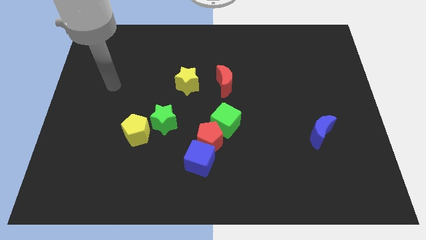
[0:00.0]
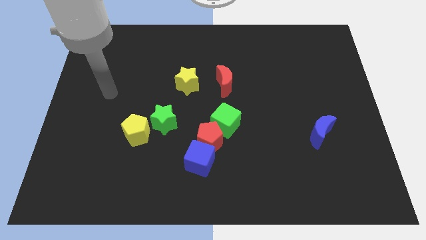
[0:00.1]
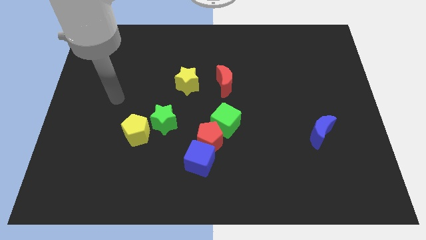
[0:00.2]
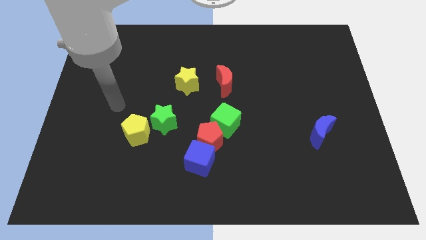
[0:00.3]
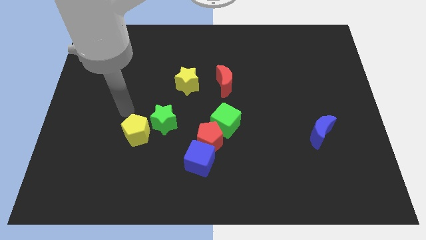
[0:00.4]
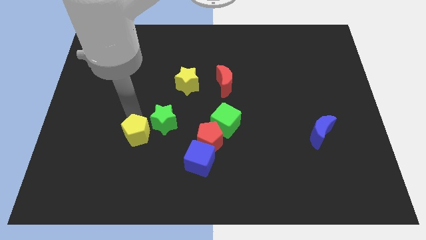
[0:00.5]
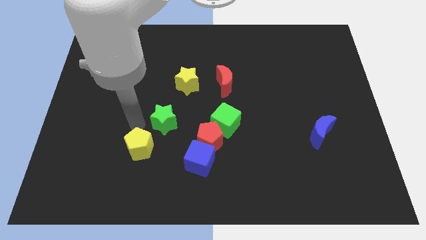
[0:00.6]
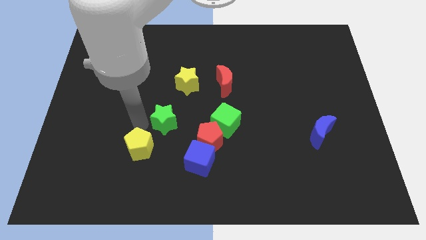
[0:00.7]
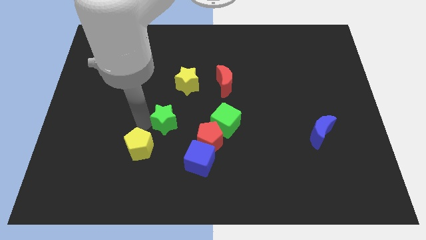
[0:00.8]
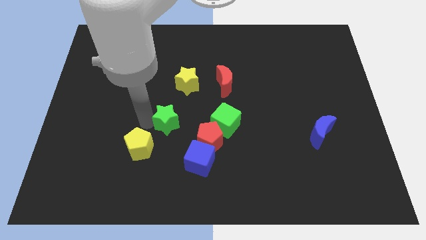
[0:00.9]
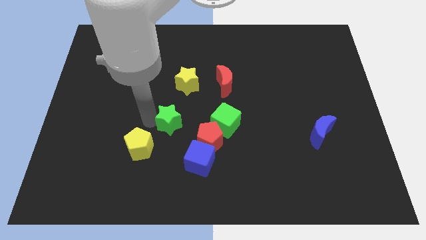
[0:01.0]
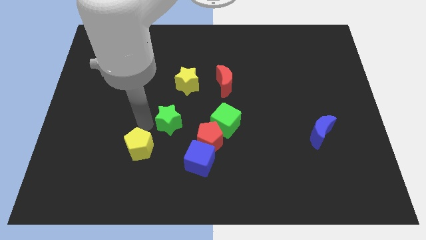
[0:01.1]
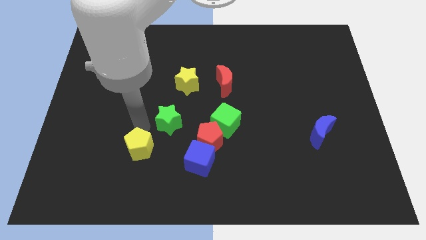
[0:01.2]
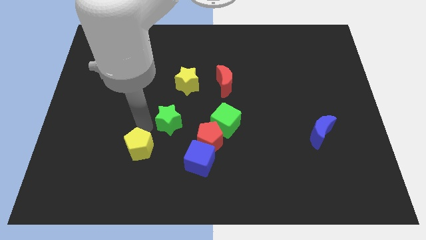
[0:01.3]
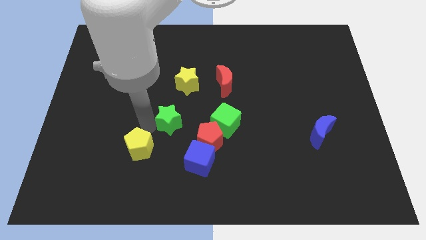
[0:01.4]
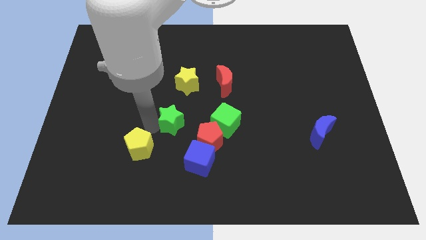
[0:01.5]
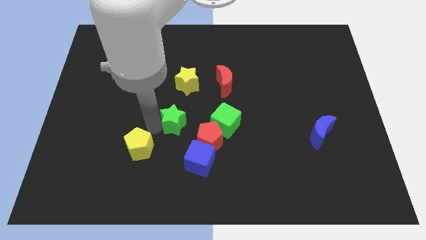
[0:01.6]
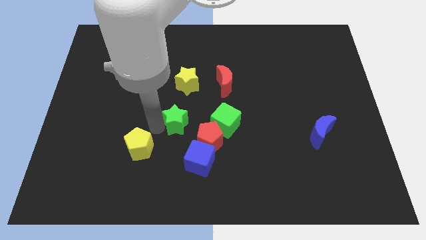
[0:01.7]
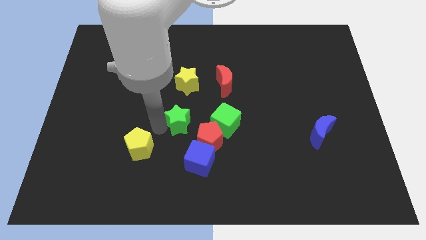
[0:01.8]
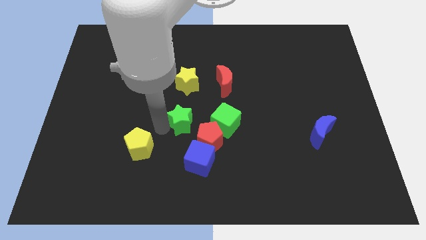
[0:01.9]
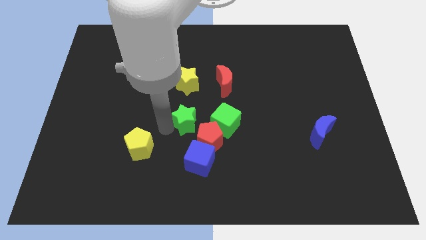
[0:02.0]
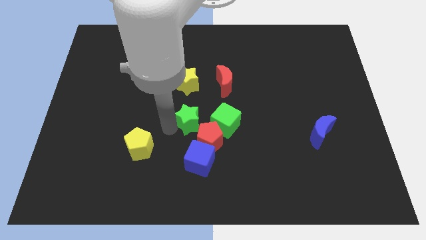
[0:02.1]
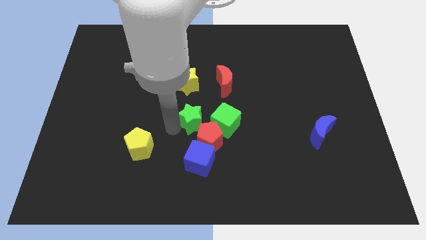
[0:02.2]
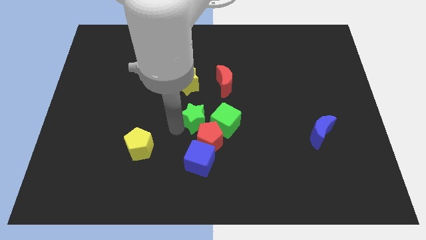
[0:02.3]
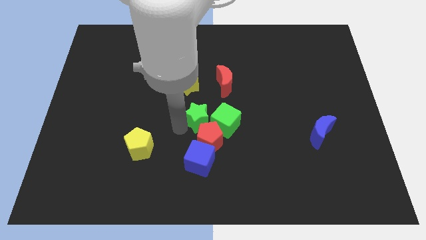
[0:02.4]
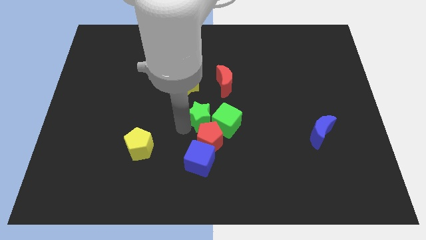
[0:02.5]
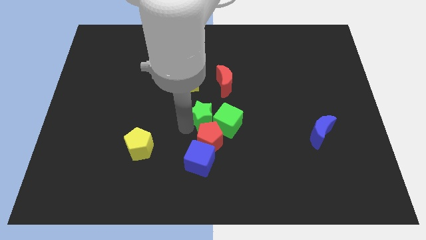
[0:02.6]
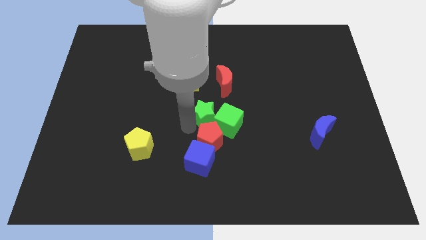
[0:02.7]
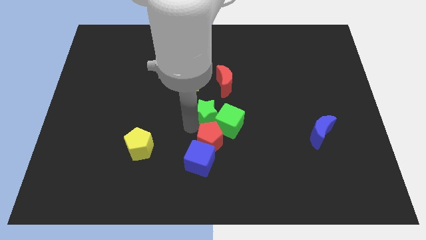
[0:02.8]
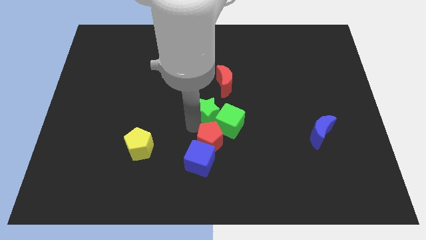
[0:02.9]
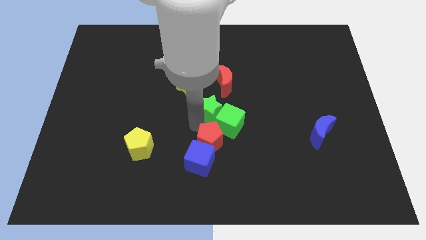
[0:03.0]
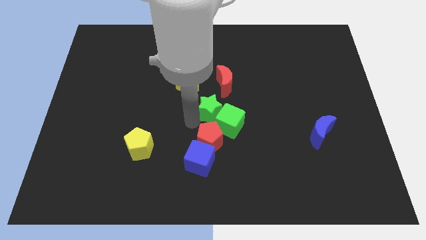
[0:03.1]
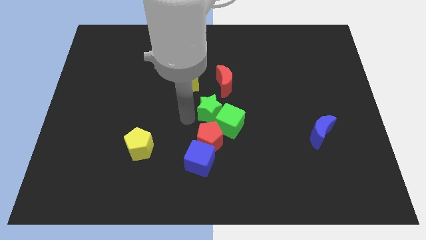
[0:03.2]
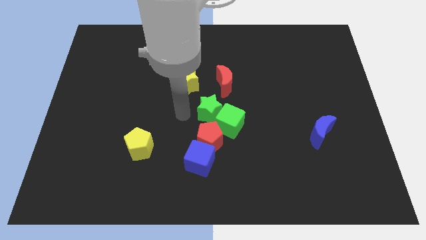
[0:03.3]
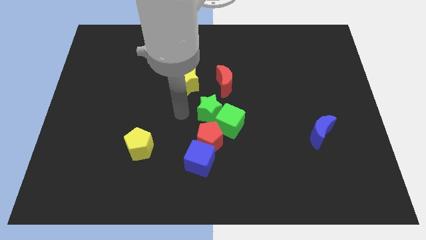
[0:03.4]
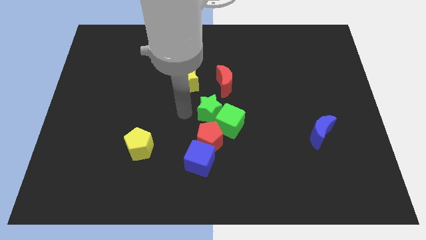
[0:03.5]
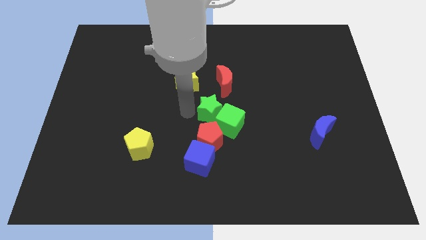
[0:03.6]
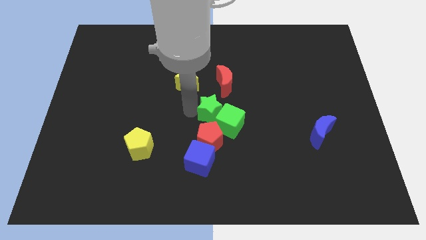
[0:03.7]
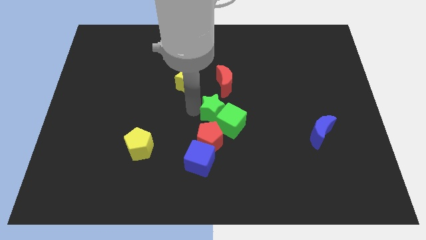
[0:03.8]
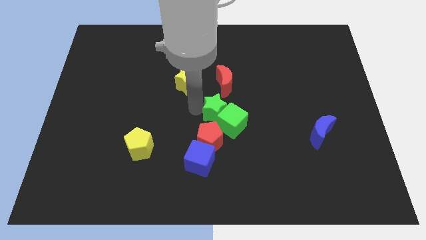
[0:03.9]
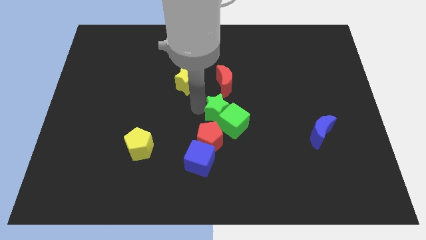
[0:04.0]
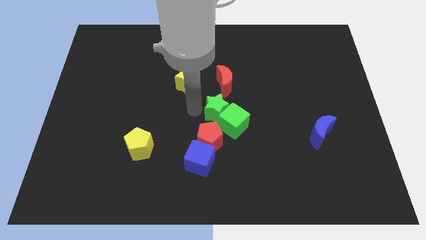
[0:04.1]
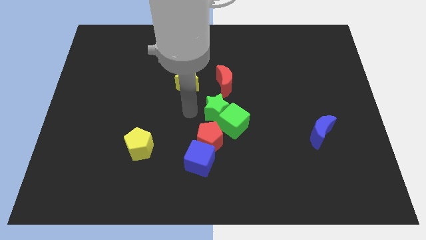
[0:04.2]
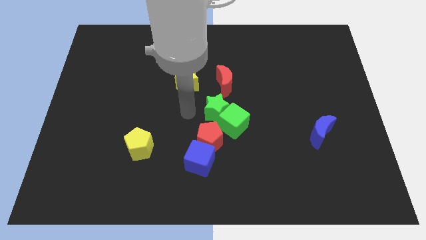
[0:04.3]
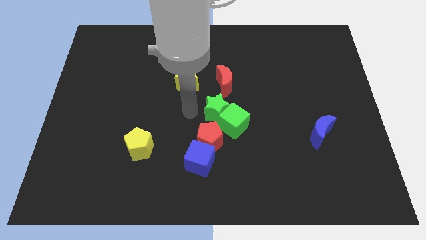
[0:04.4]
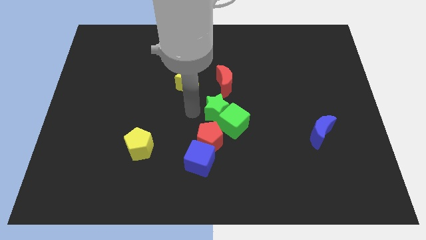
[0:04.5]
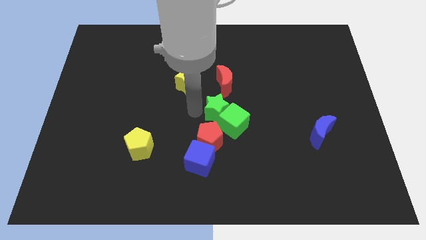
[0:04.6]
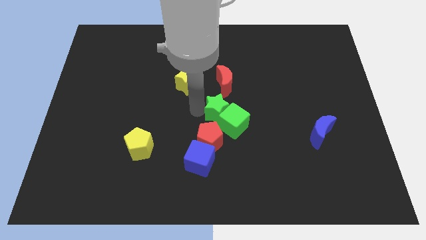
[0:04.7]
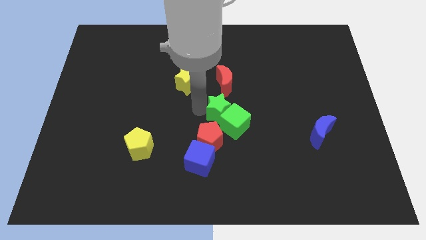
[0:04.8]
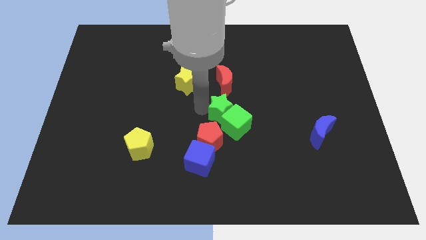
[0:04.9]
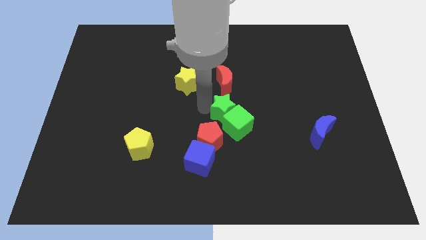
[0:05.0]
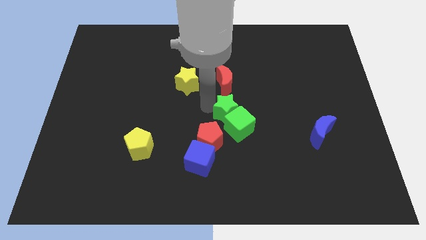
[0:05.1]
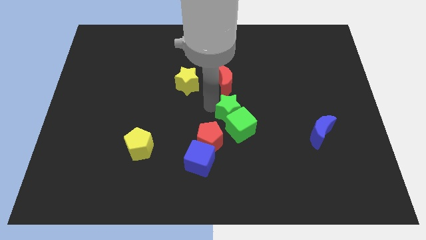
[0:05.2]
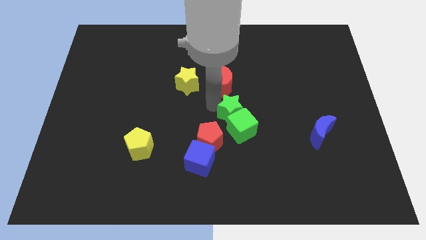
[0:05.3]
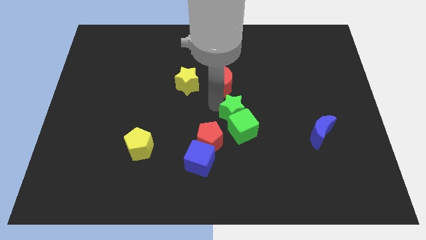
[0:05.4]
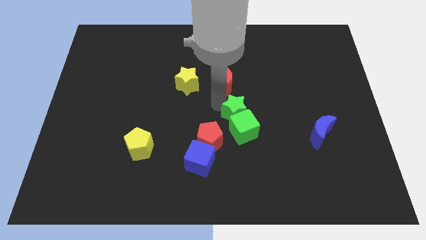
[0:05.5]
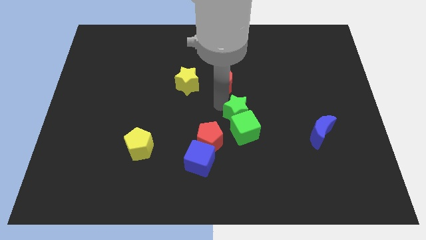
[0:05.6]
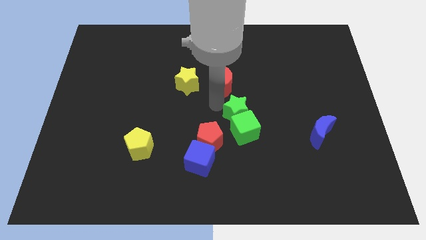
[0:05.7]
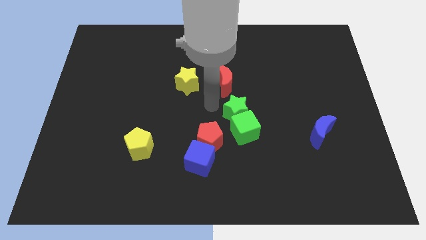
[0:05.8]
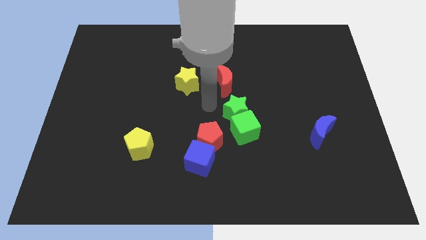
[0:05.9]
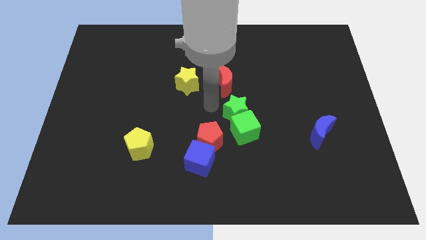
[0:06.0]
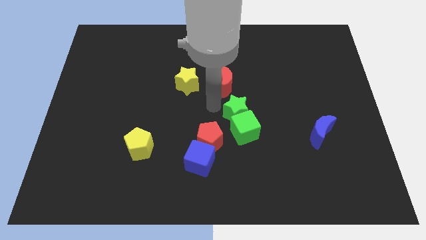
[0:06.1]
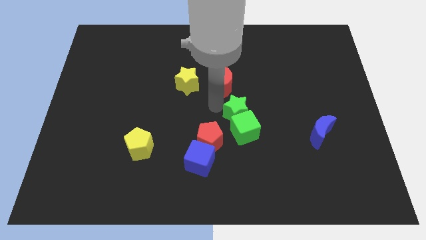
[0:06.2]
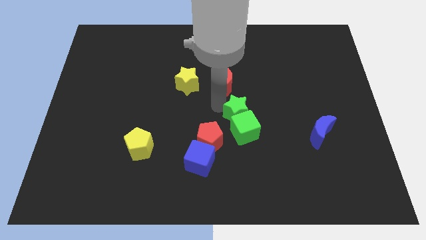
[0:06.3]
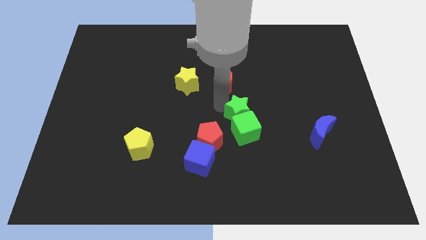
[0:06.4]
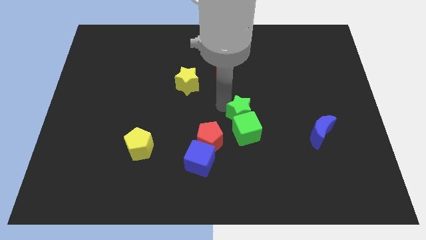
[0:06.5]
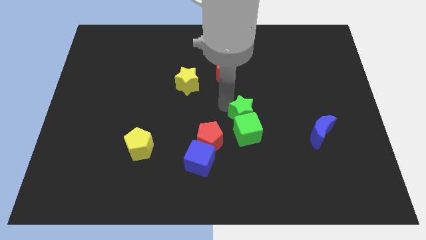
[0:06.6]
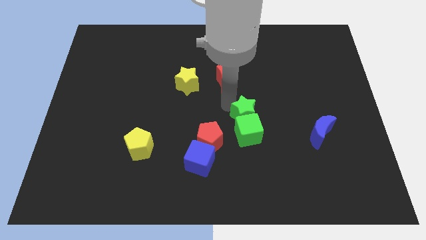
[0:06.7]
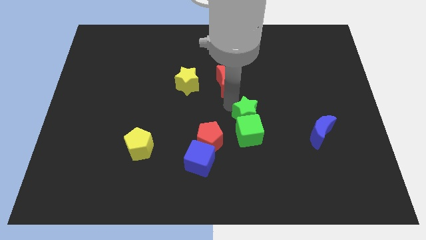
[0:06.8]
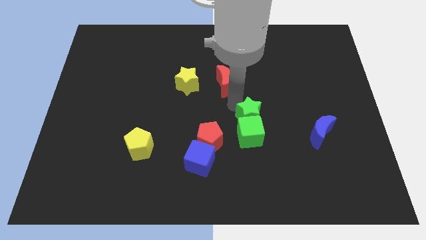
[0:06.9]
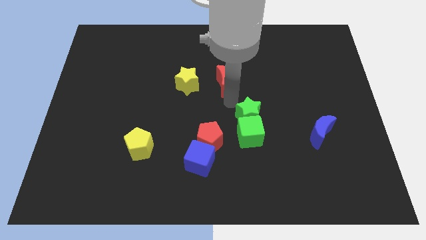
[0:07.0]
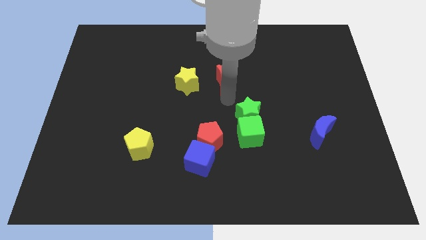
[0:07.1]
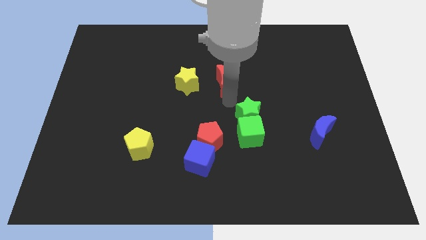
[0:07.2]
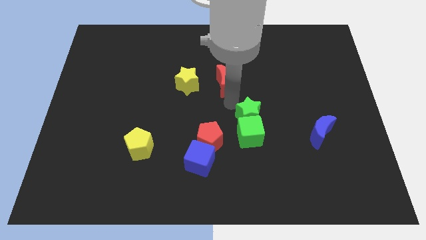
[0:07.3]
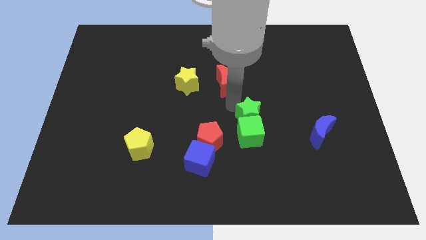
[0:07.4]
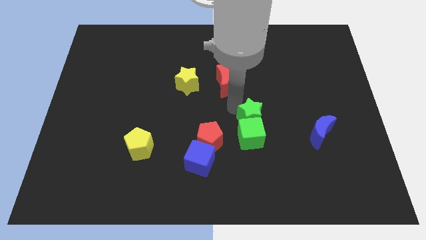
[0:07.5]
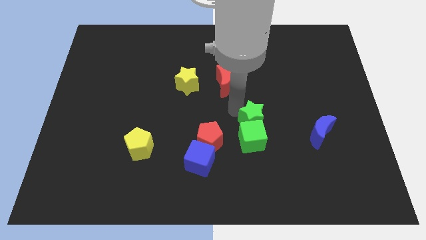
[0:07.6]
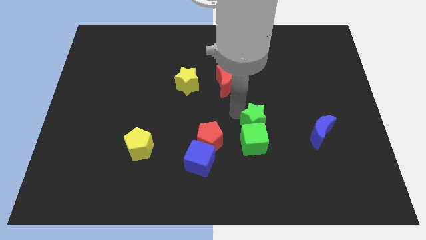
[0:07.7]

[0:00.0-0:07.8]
push the green star to the left of the blue moon
